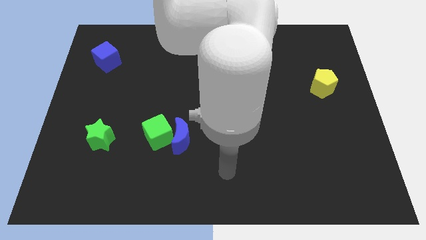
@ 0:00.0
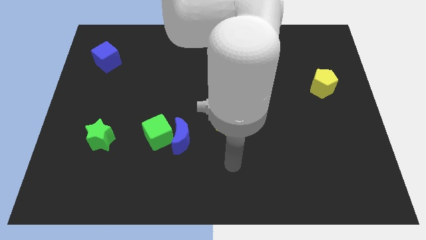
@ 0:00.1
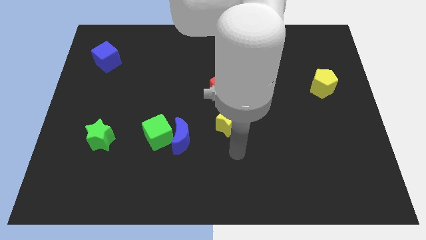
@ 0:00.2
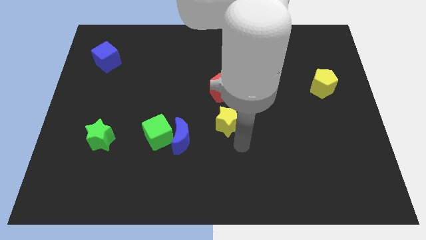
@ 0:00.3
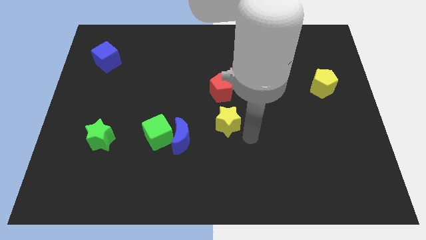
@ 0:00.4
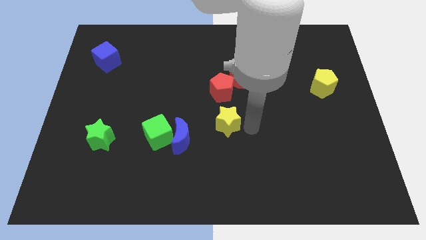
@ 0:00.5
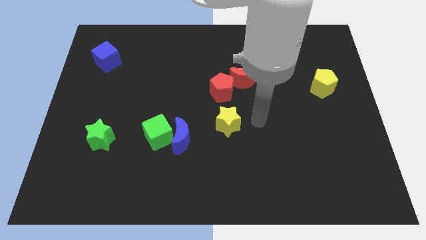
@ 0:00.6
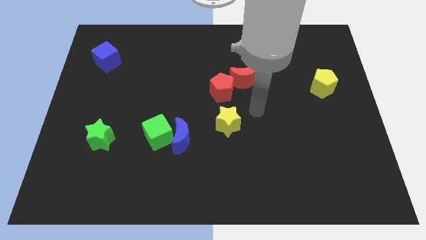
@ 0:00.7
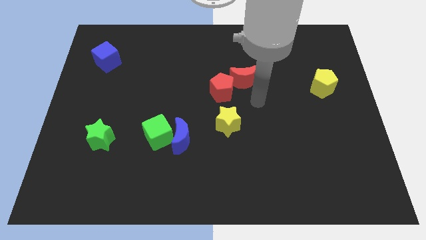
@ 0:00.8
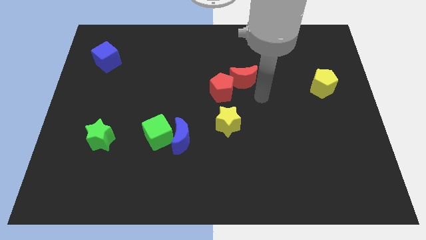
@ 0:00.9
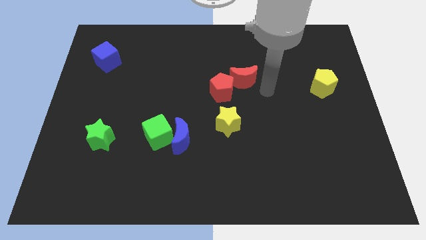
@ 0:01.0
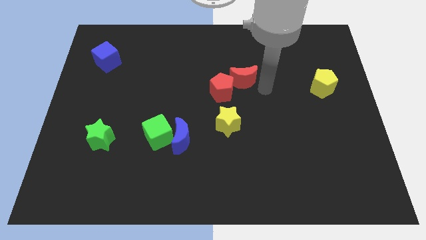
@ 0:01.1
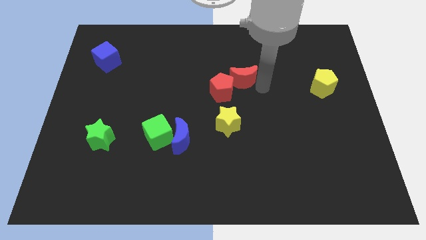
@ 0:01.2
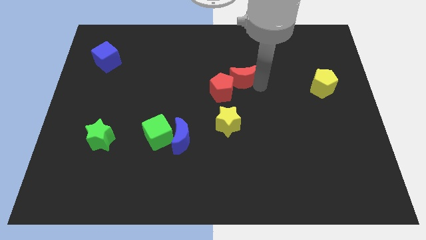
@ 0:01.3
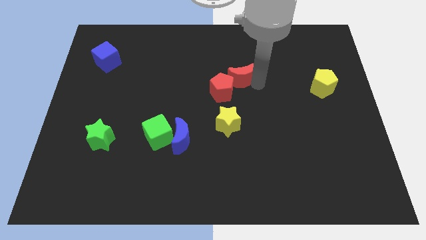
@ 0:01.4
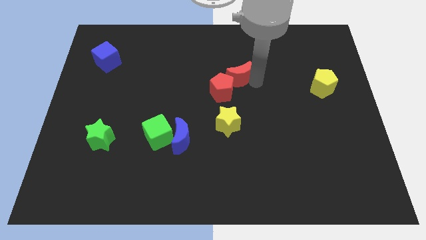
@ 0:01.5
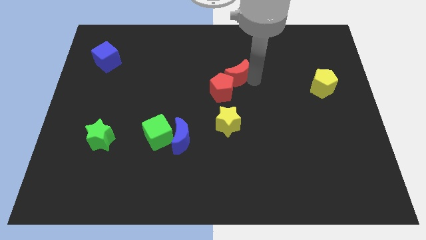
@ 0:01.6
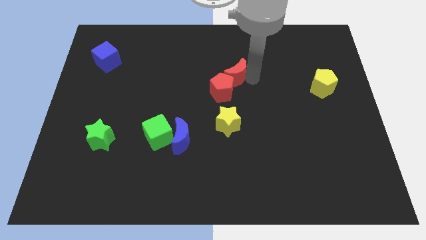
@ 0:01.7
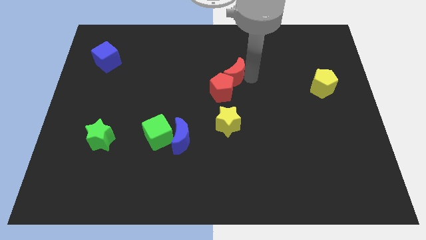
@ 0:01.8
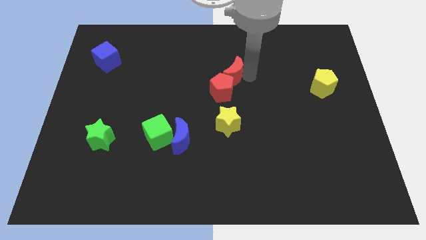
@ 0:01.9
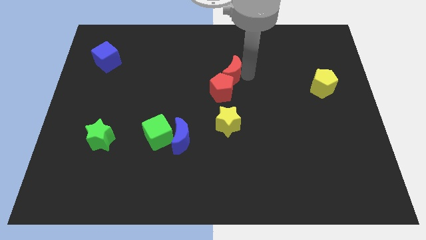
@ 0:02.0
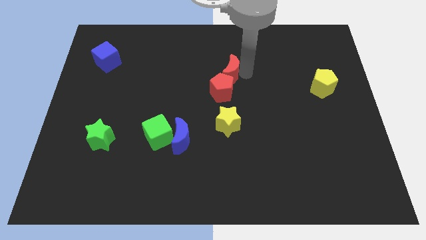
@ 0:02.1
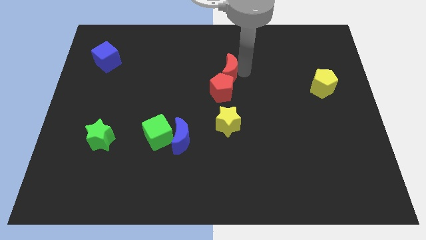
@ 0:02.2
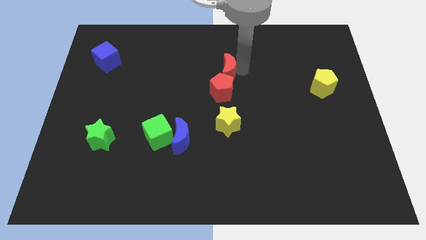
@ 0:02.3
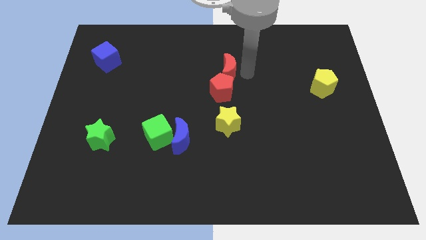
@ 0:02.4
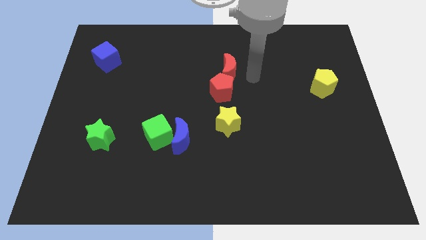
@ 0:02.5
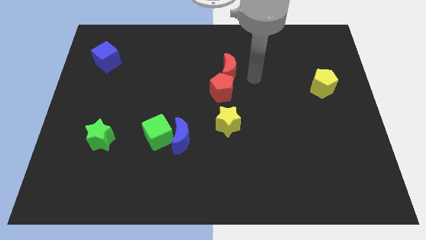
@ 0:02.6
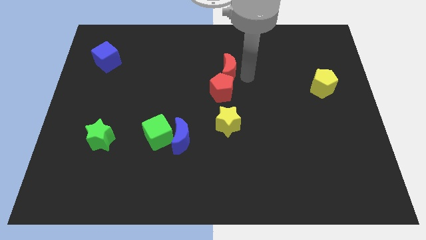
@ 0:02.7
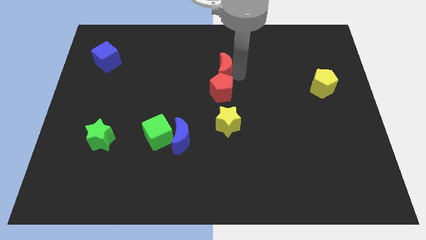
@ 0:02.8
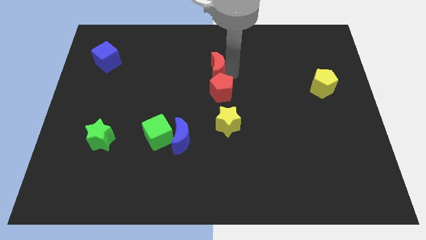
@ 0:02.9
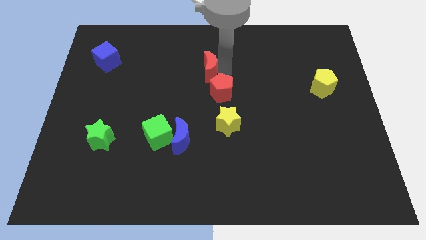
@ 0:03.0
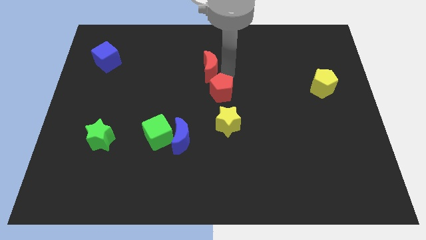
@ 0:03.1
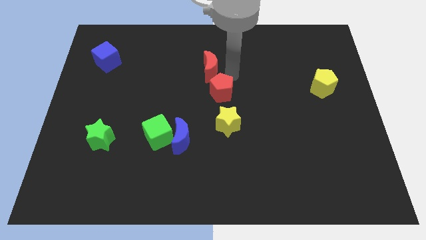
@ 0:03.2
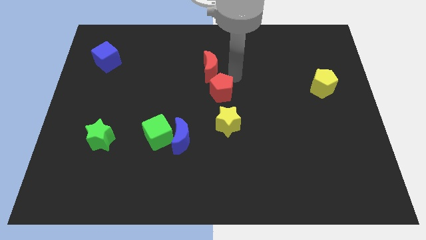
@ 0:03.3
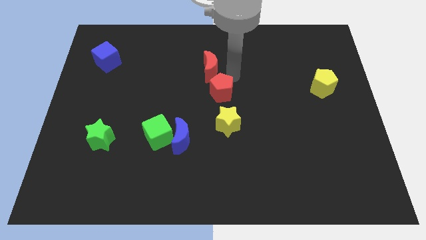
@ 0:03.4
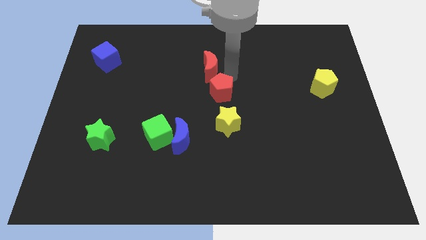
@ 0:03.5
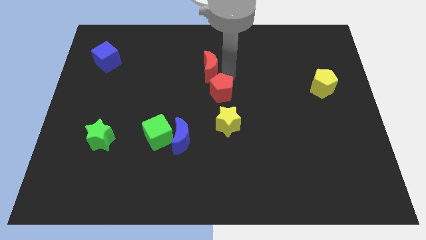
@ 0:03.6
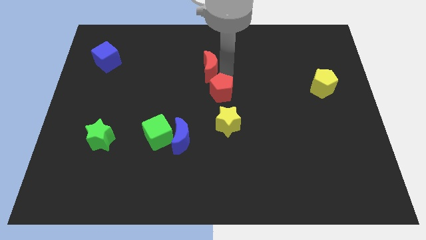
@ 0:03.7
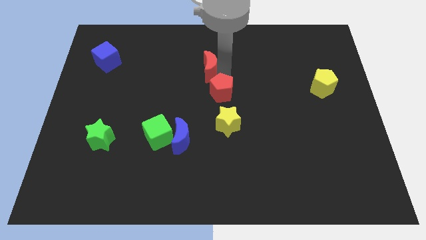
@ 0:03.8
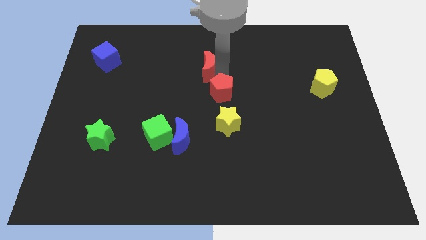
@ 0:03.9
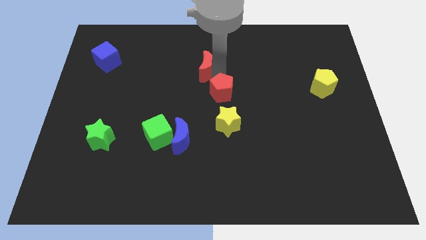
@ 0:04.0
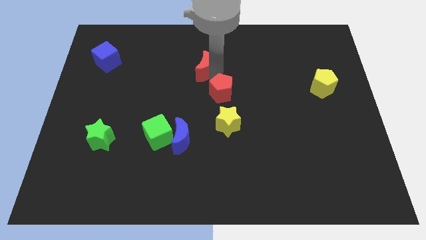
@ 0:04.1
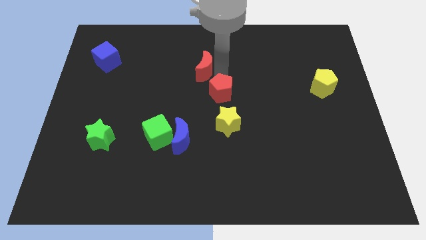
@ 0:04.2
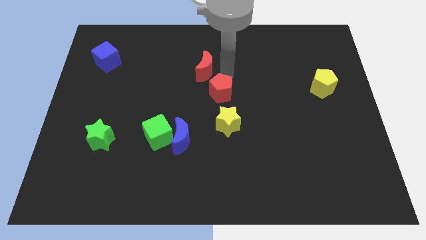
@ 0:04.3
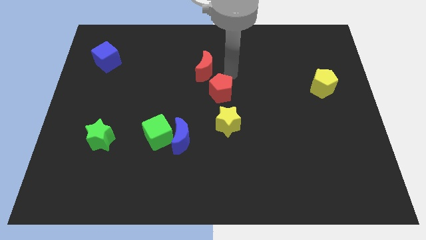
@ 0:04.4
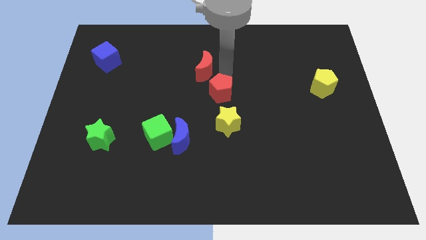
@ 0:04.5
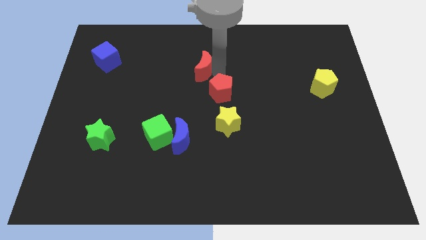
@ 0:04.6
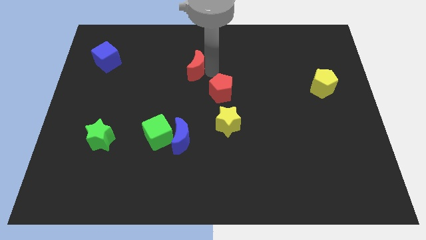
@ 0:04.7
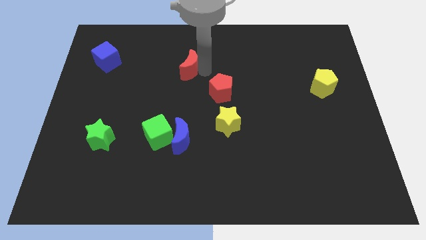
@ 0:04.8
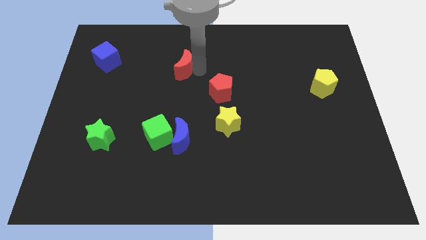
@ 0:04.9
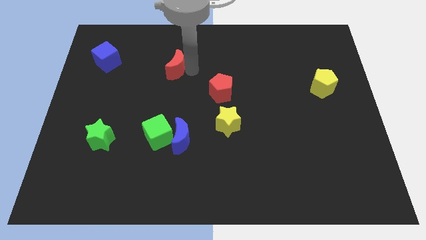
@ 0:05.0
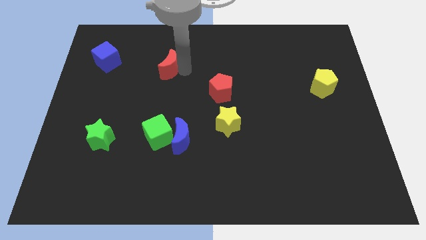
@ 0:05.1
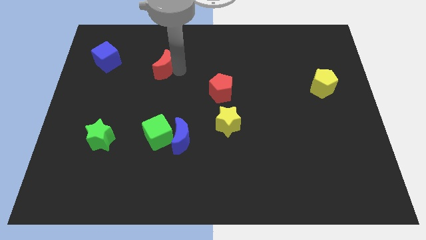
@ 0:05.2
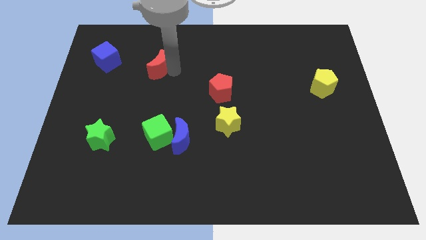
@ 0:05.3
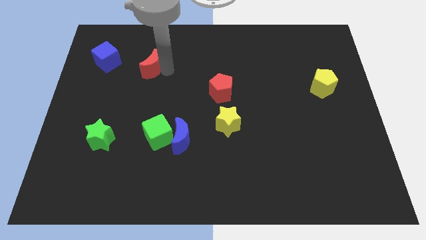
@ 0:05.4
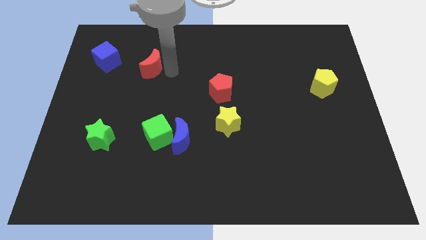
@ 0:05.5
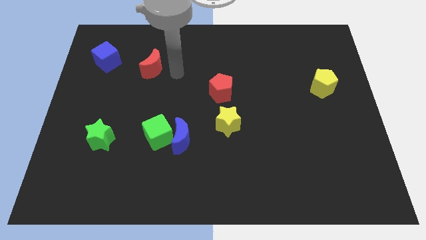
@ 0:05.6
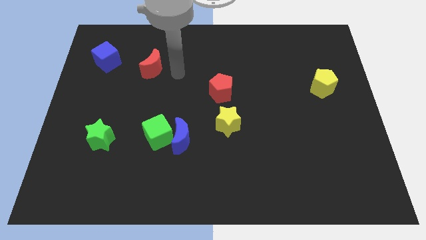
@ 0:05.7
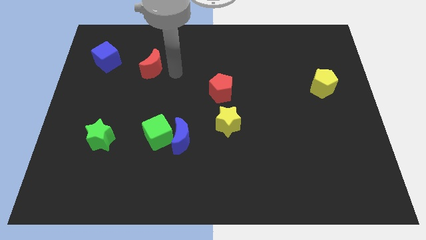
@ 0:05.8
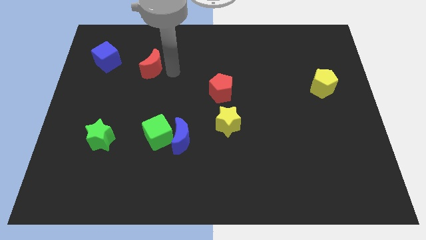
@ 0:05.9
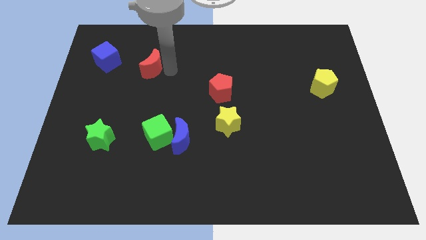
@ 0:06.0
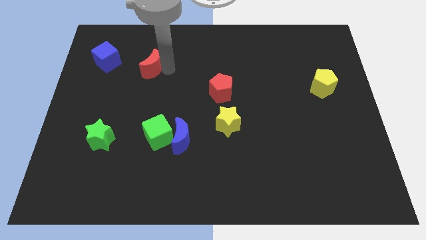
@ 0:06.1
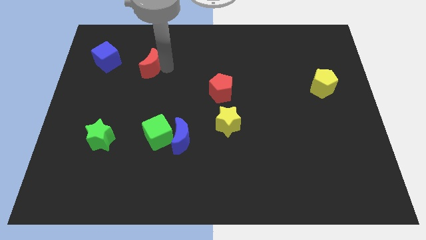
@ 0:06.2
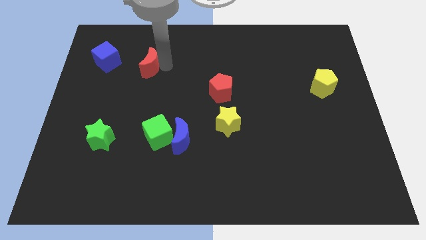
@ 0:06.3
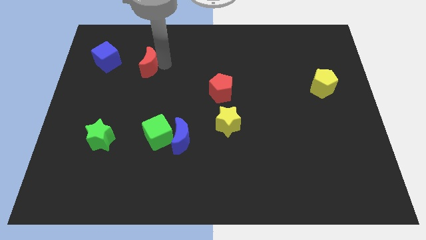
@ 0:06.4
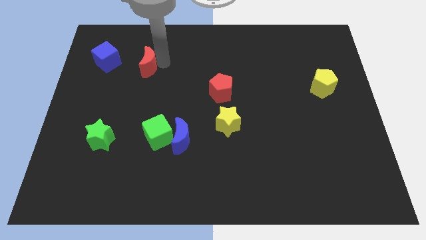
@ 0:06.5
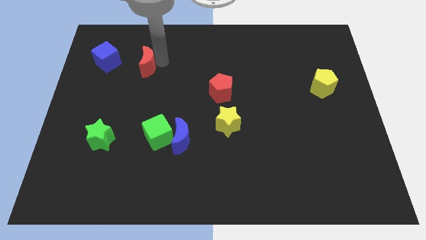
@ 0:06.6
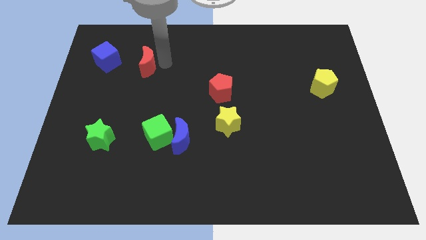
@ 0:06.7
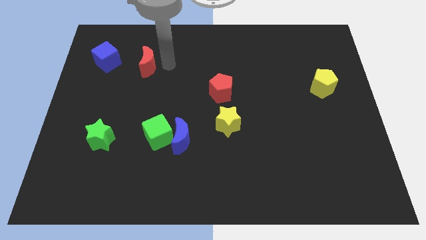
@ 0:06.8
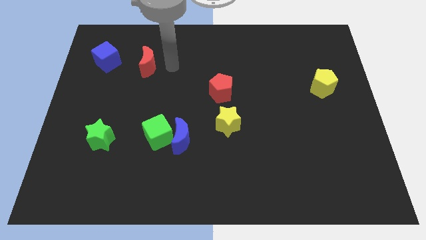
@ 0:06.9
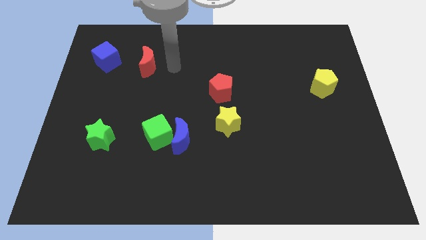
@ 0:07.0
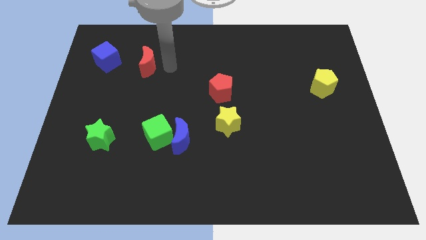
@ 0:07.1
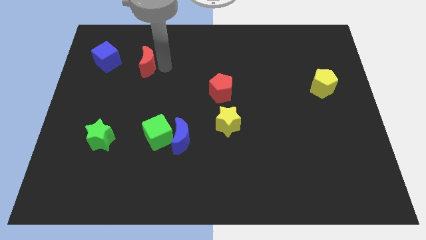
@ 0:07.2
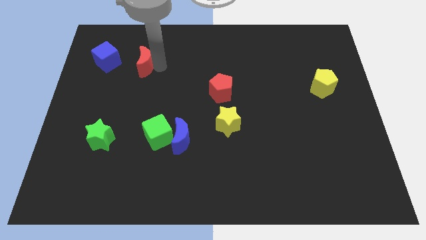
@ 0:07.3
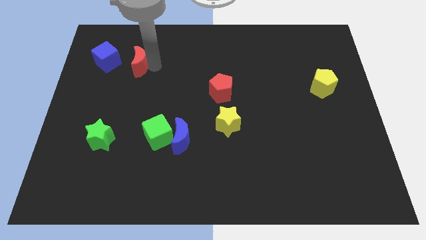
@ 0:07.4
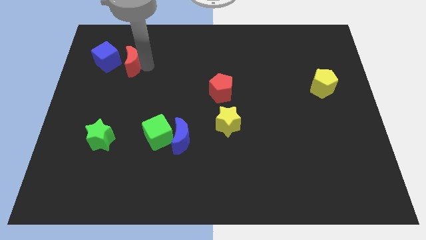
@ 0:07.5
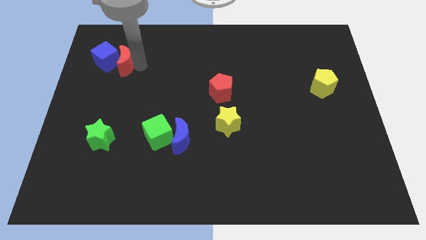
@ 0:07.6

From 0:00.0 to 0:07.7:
put the red moon close to the blue cube
